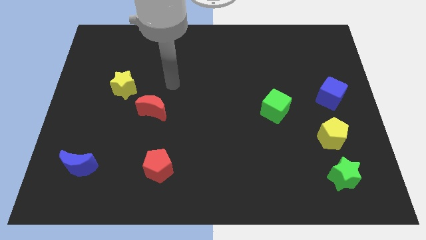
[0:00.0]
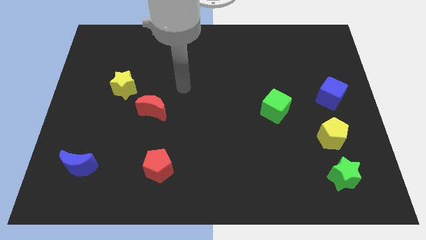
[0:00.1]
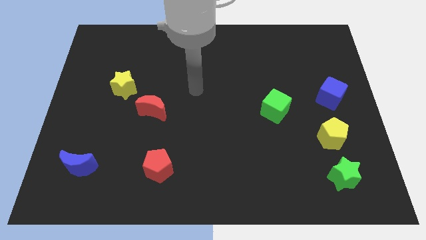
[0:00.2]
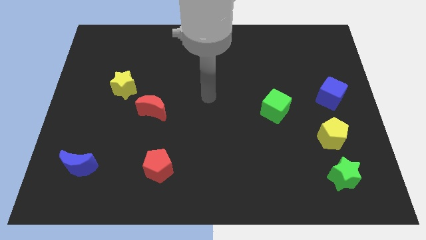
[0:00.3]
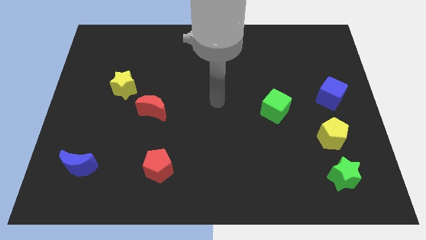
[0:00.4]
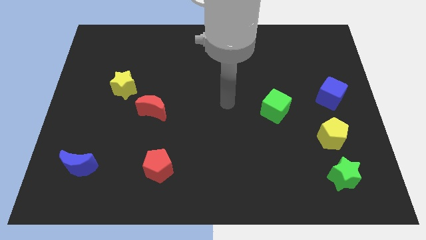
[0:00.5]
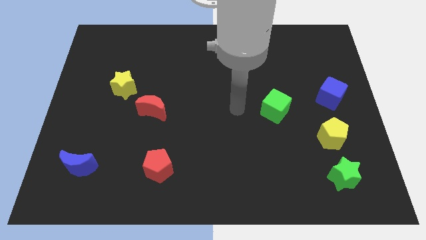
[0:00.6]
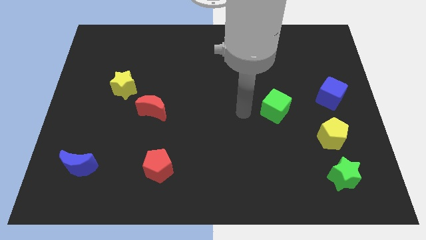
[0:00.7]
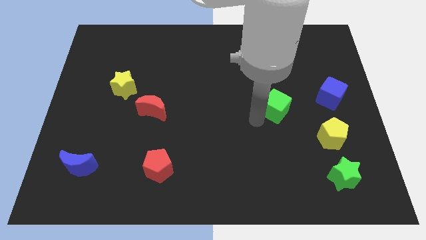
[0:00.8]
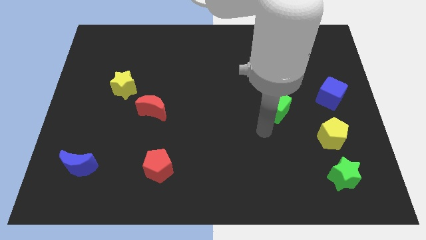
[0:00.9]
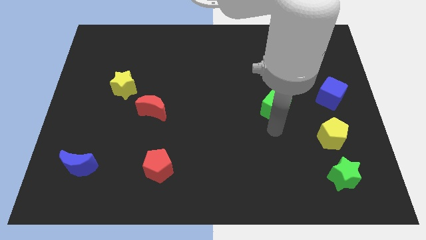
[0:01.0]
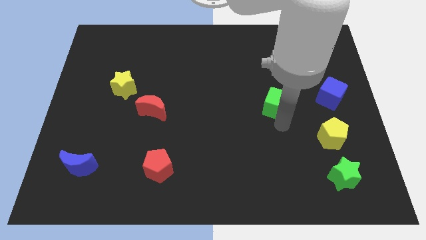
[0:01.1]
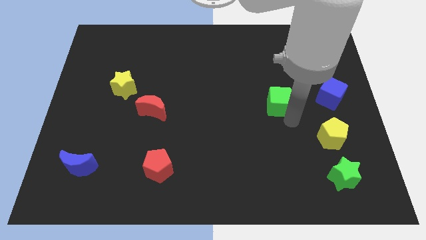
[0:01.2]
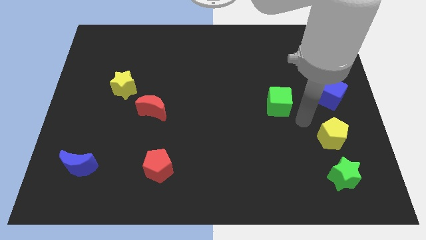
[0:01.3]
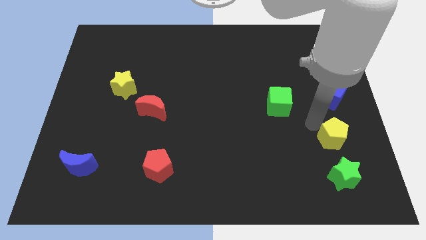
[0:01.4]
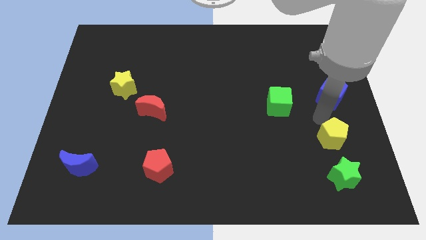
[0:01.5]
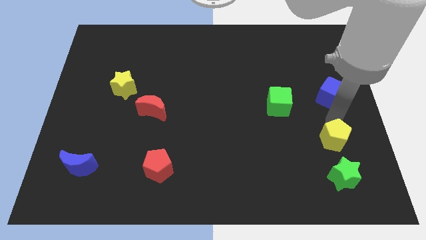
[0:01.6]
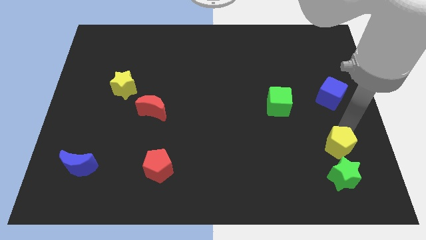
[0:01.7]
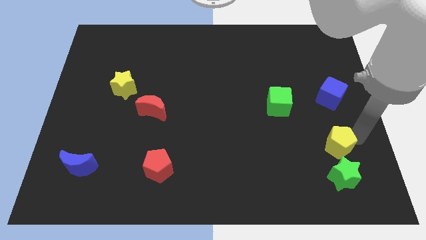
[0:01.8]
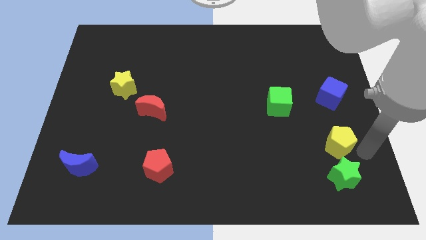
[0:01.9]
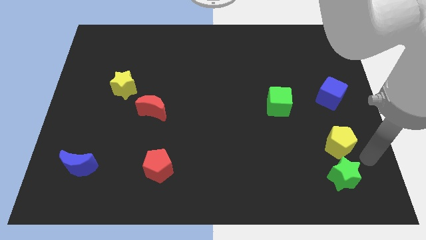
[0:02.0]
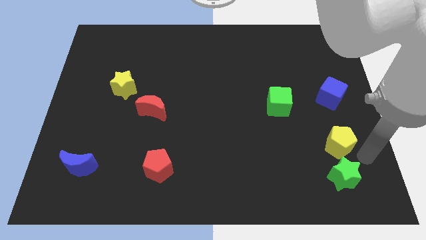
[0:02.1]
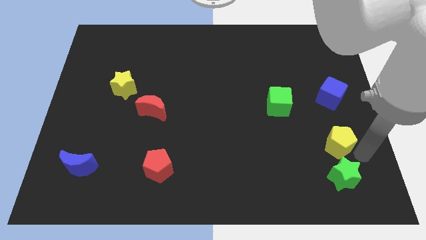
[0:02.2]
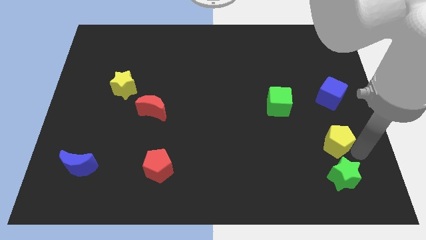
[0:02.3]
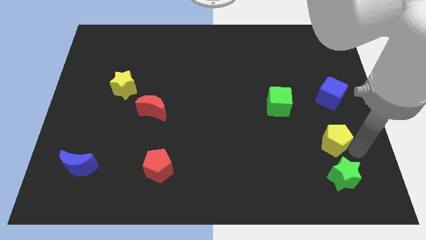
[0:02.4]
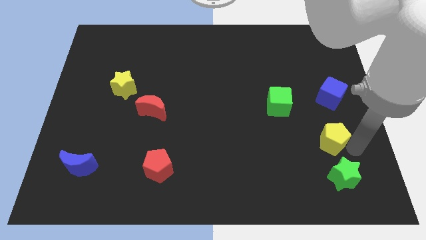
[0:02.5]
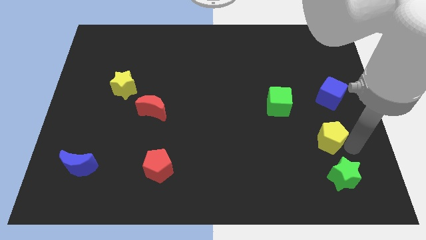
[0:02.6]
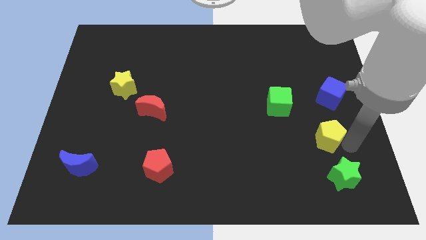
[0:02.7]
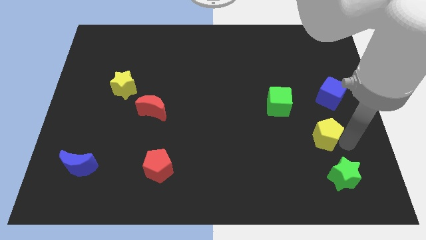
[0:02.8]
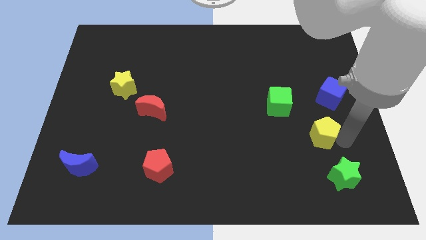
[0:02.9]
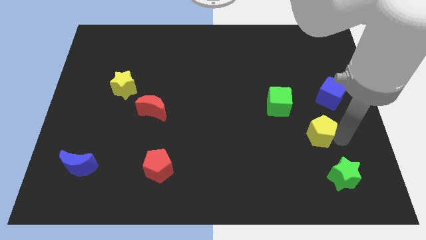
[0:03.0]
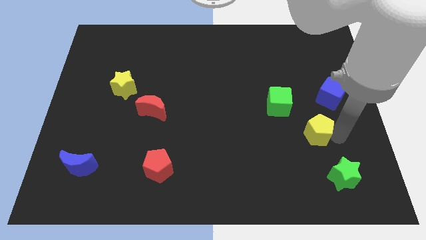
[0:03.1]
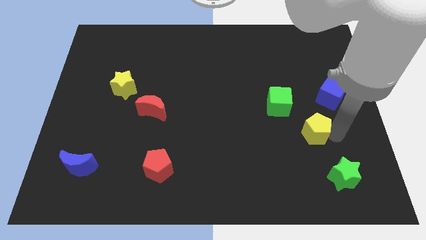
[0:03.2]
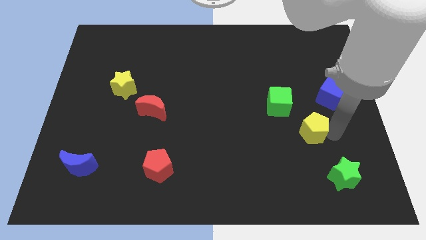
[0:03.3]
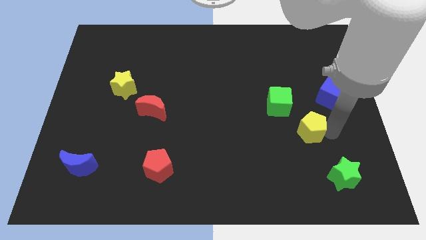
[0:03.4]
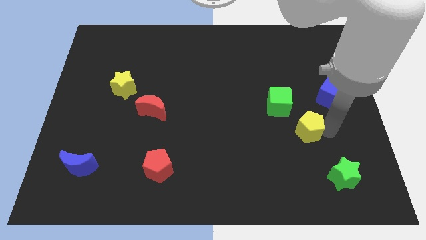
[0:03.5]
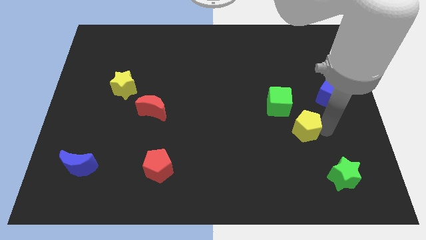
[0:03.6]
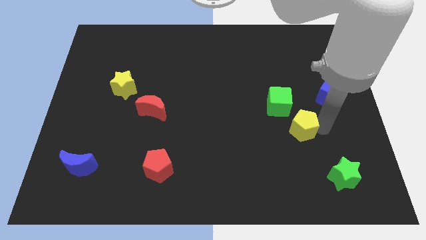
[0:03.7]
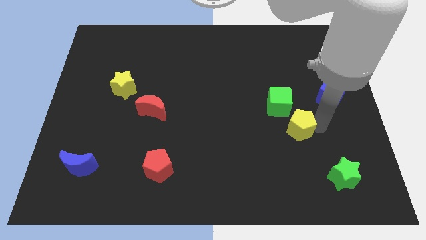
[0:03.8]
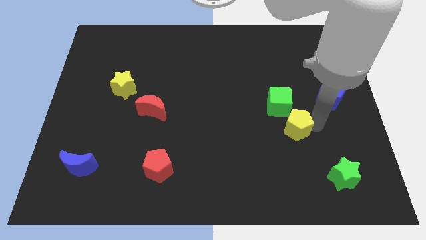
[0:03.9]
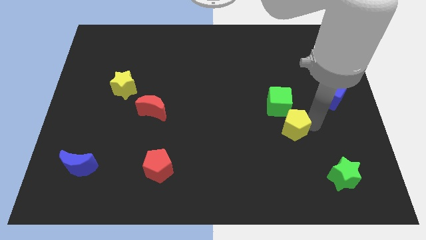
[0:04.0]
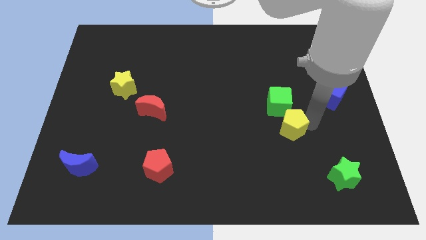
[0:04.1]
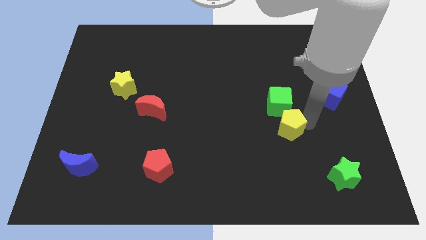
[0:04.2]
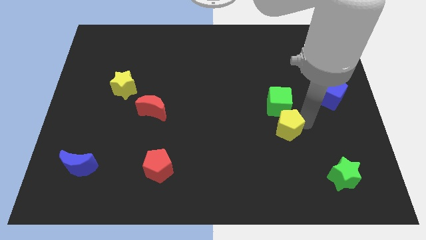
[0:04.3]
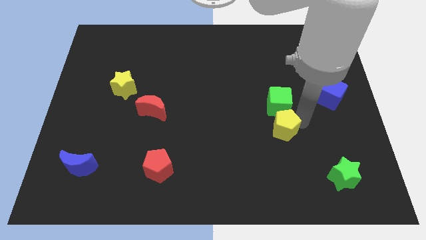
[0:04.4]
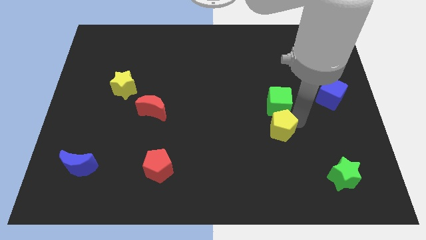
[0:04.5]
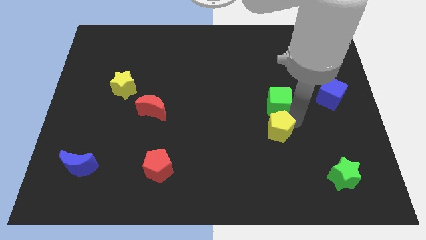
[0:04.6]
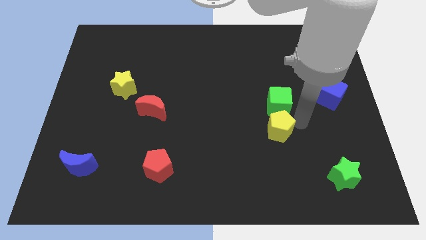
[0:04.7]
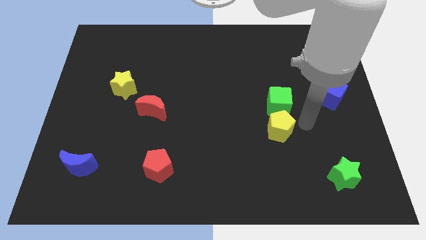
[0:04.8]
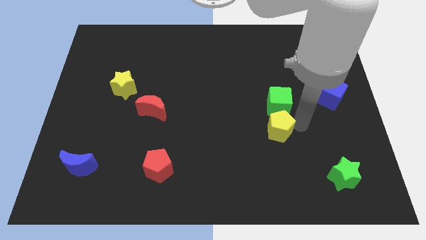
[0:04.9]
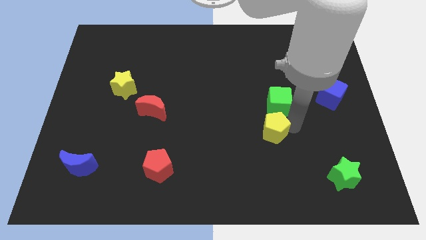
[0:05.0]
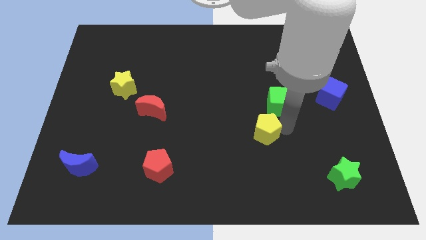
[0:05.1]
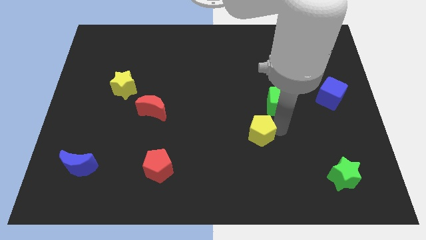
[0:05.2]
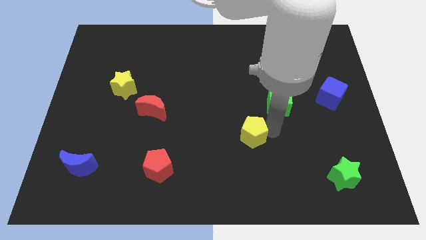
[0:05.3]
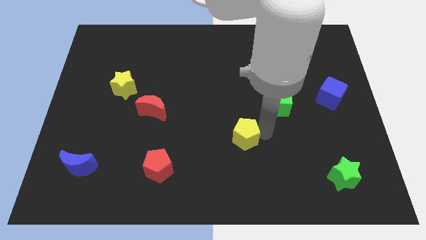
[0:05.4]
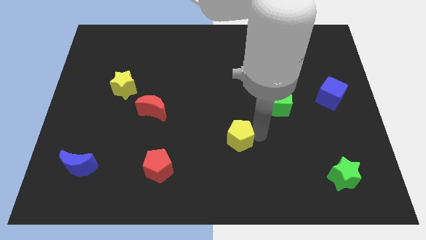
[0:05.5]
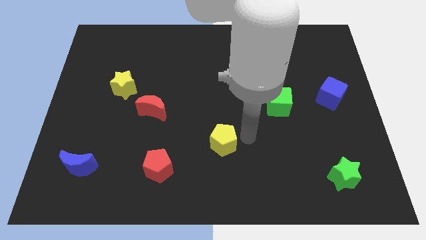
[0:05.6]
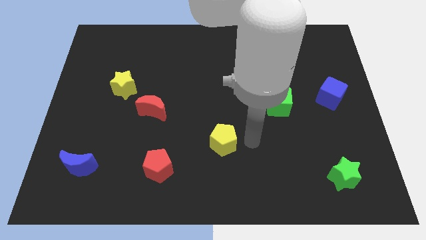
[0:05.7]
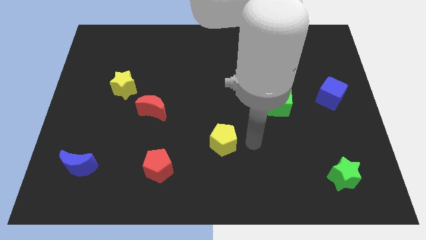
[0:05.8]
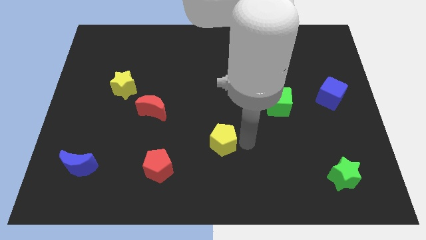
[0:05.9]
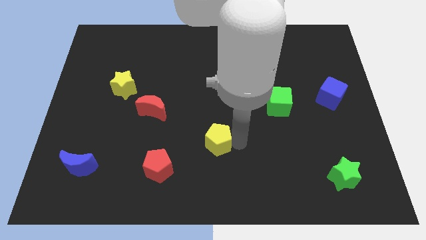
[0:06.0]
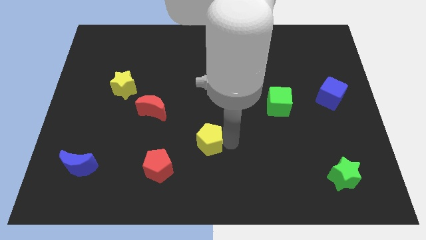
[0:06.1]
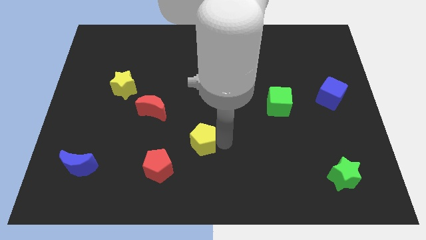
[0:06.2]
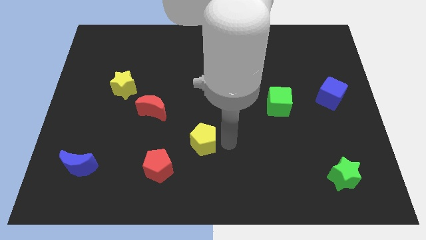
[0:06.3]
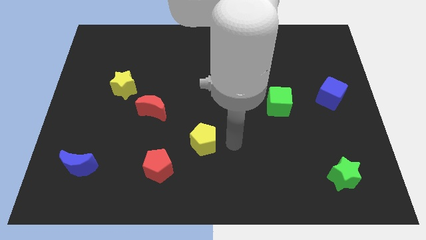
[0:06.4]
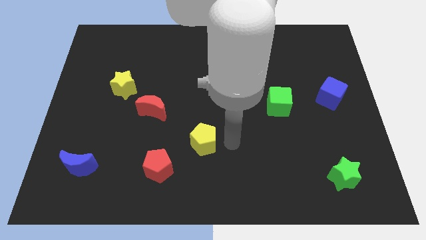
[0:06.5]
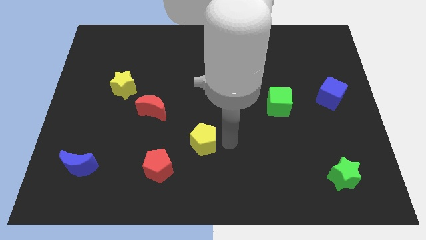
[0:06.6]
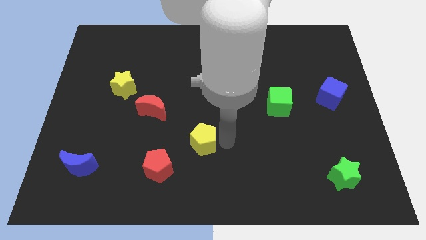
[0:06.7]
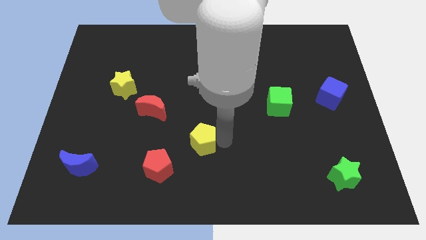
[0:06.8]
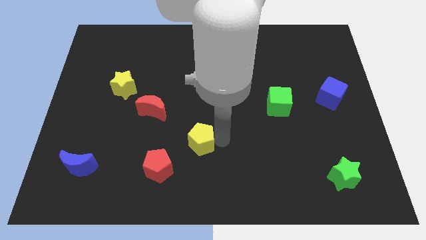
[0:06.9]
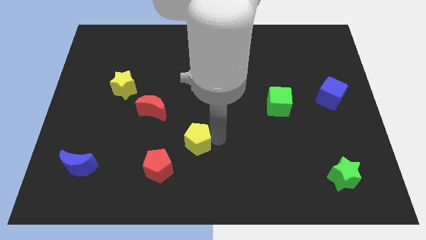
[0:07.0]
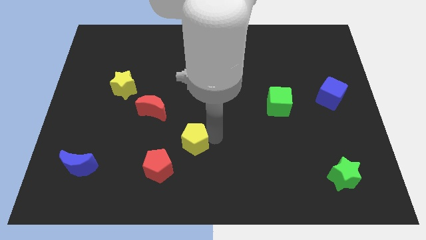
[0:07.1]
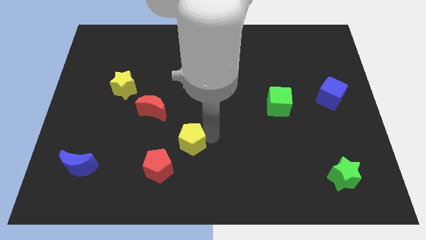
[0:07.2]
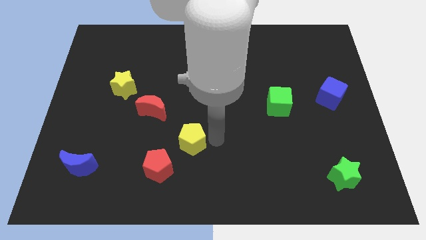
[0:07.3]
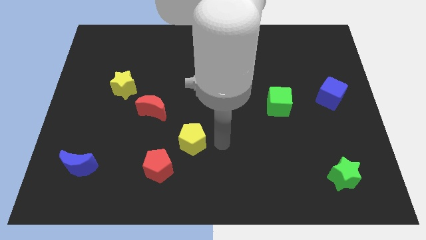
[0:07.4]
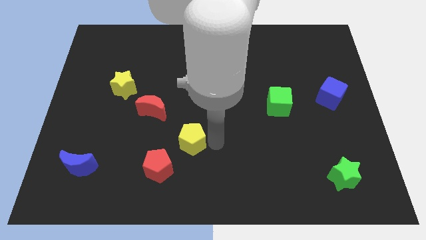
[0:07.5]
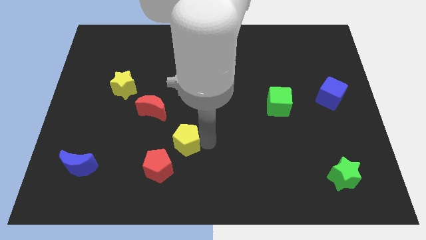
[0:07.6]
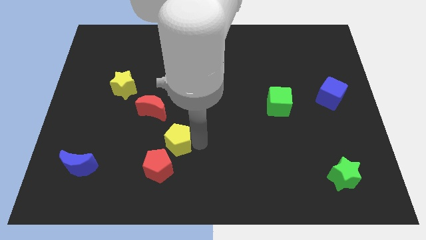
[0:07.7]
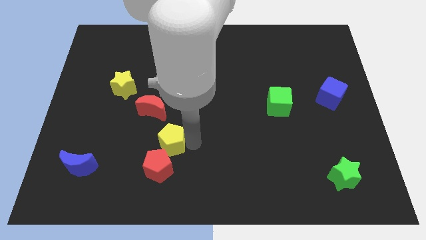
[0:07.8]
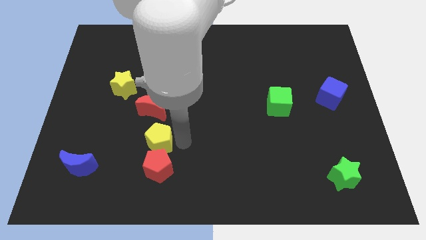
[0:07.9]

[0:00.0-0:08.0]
push the yellow pentagon to the top left side of the red pentagon
